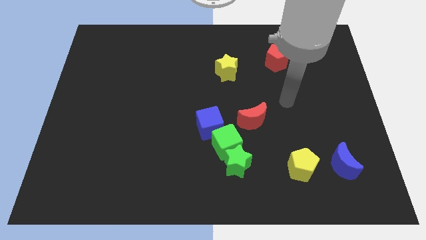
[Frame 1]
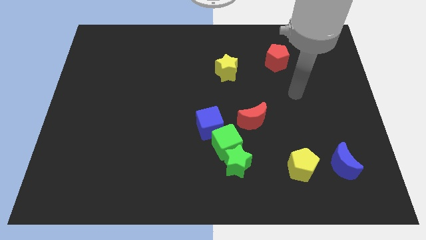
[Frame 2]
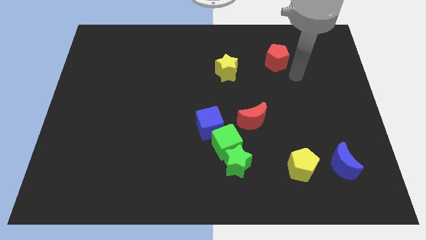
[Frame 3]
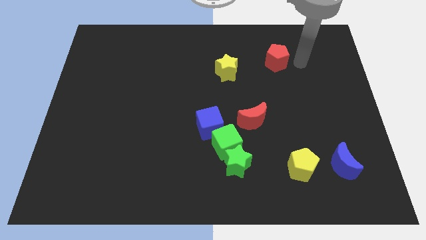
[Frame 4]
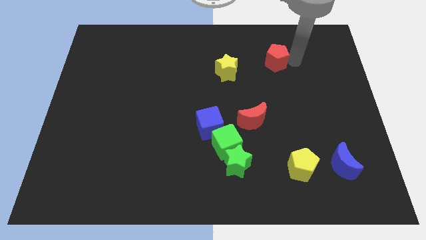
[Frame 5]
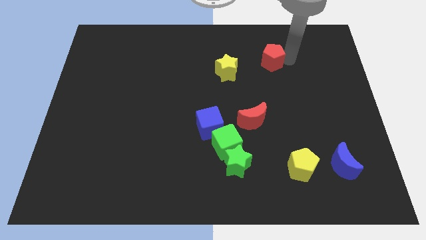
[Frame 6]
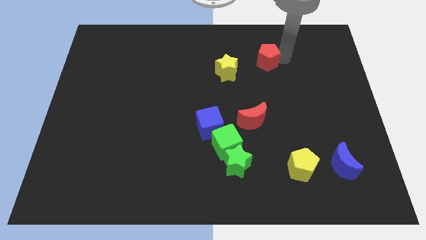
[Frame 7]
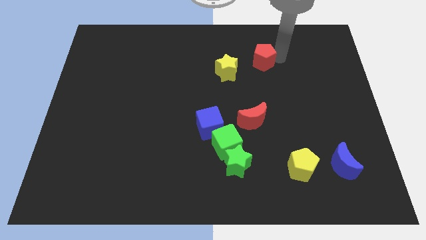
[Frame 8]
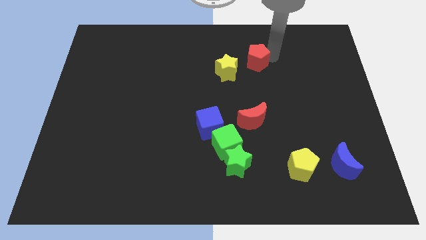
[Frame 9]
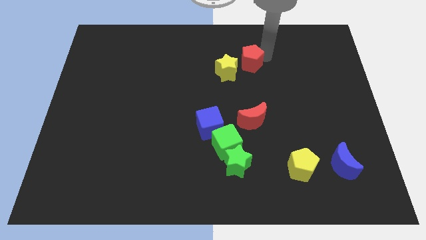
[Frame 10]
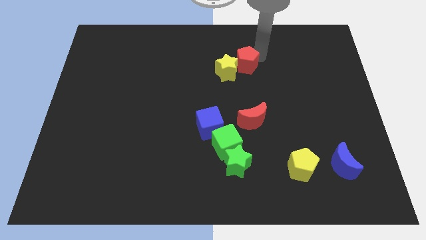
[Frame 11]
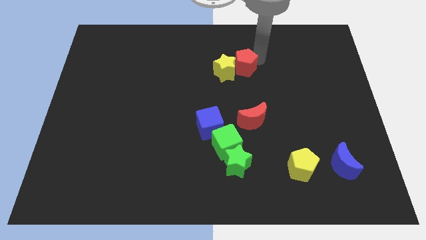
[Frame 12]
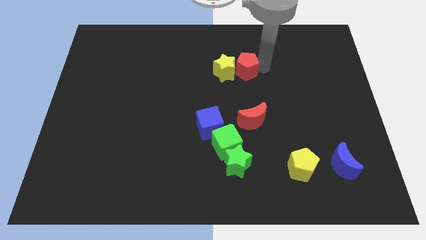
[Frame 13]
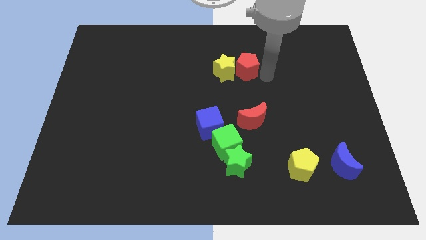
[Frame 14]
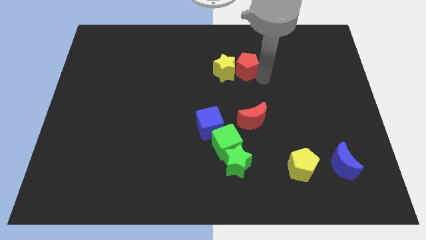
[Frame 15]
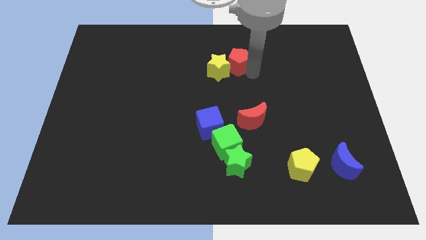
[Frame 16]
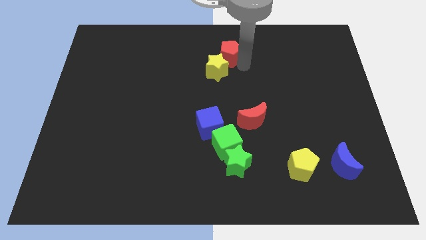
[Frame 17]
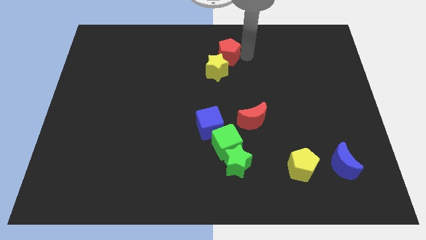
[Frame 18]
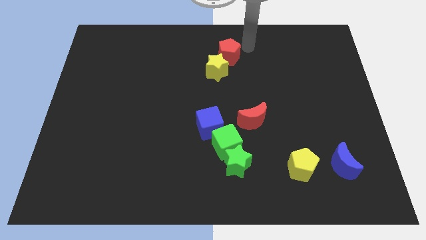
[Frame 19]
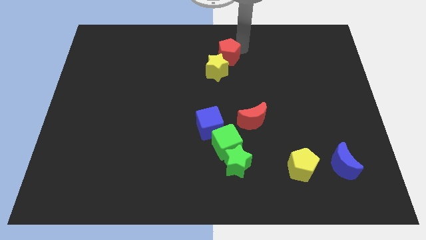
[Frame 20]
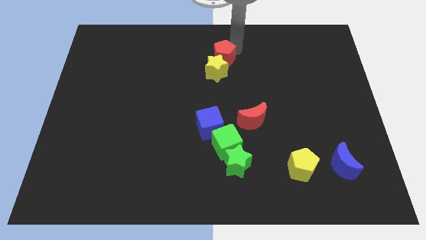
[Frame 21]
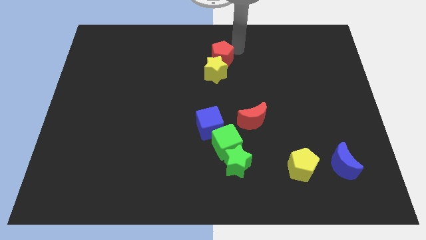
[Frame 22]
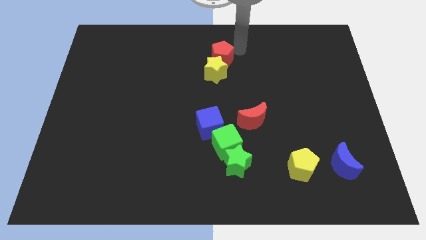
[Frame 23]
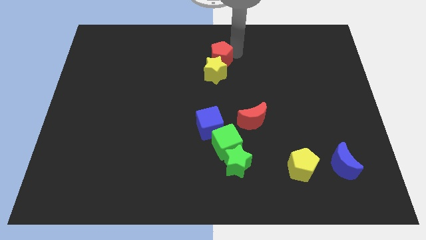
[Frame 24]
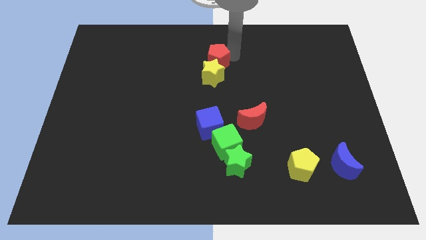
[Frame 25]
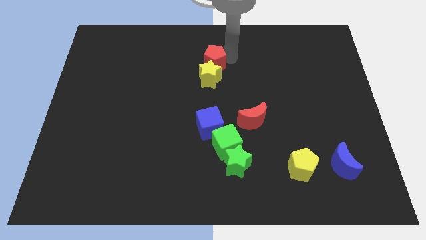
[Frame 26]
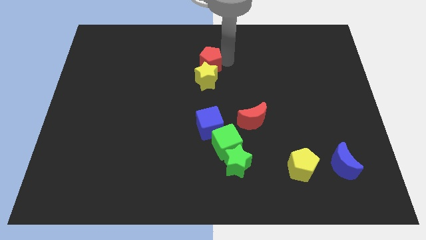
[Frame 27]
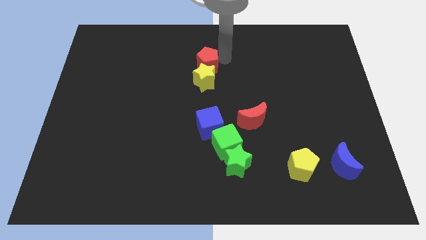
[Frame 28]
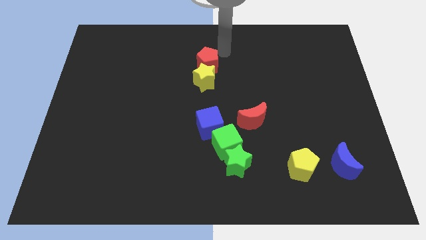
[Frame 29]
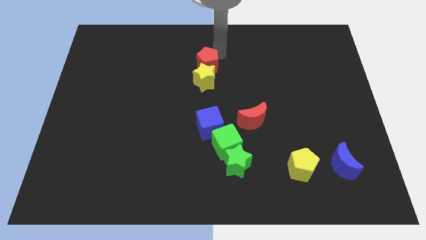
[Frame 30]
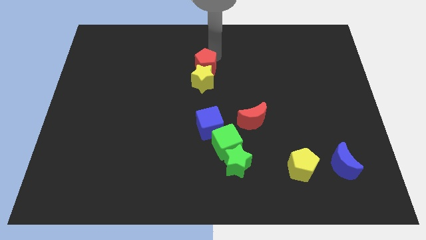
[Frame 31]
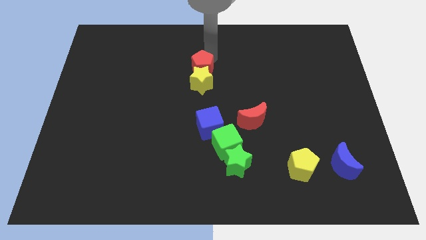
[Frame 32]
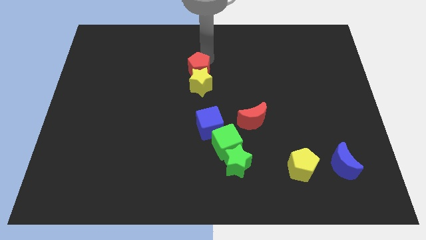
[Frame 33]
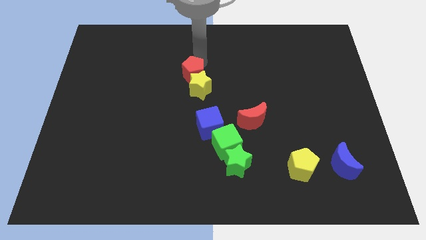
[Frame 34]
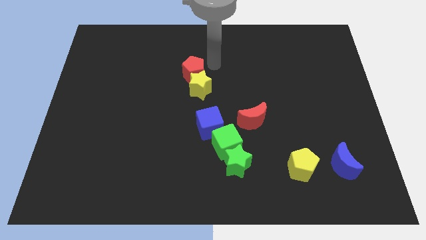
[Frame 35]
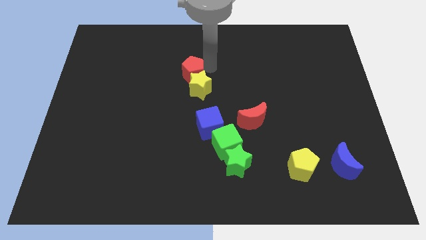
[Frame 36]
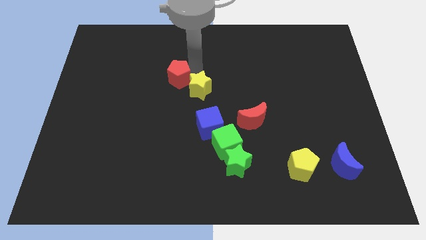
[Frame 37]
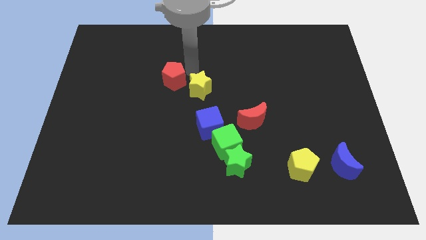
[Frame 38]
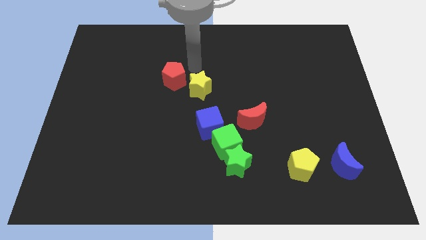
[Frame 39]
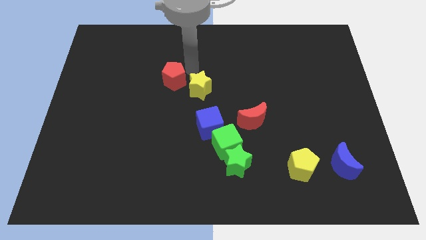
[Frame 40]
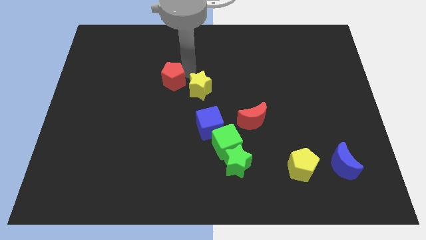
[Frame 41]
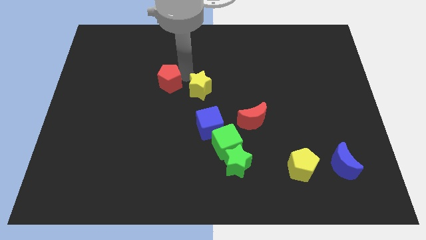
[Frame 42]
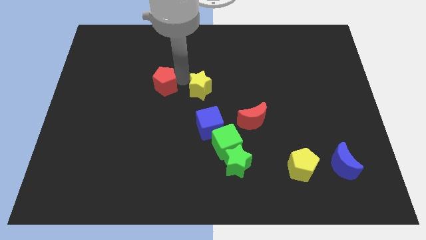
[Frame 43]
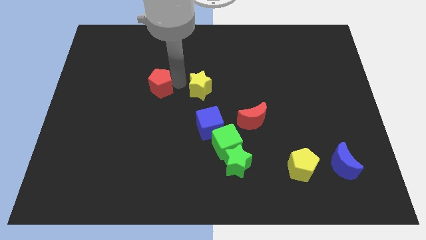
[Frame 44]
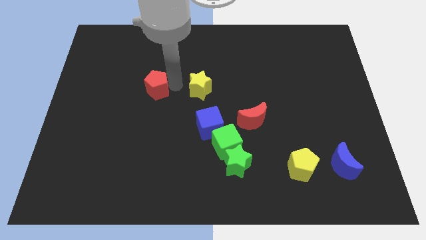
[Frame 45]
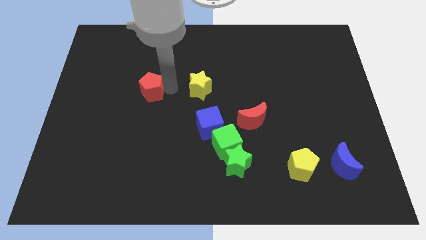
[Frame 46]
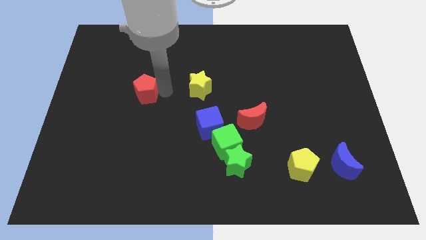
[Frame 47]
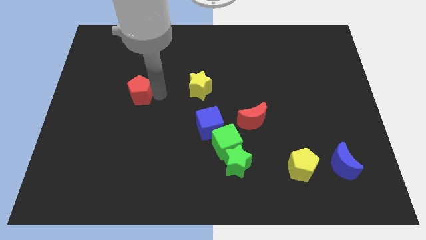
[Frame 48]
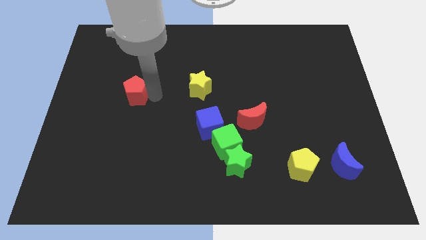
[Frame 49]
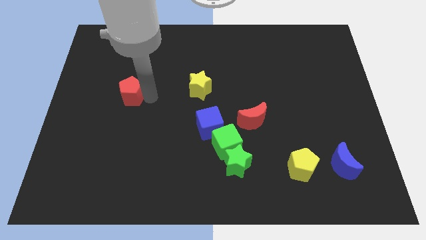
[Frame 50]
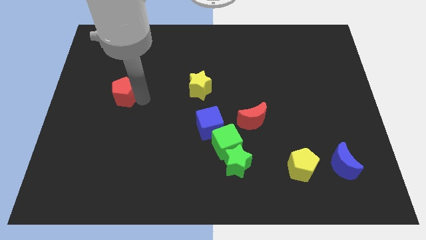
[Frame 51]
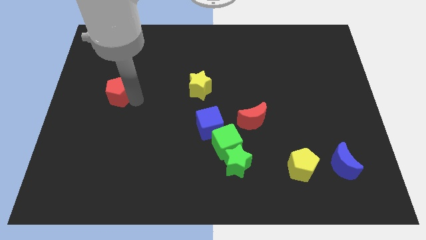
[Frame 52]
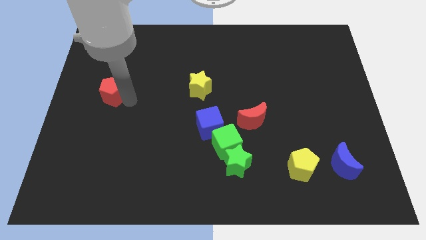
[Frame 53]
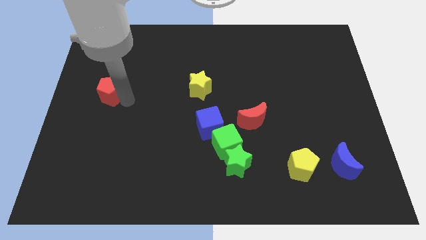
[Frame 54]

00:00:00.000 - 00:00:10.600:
move the red pentagon to the left side

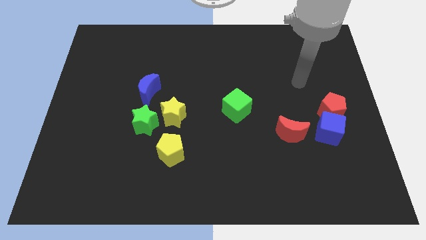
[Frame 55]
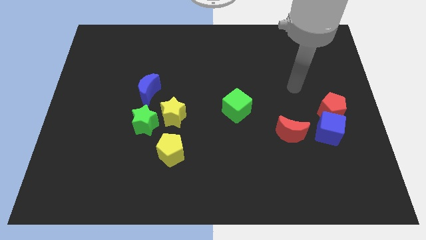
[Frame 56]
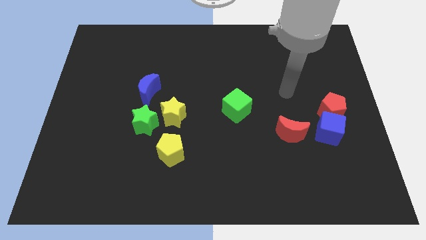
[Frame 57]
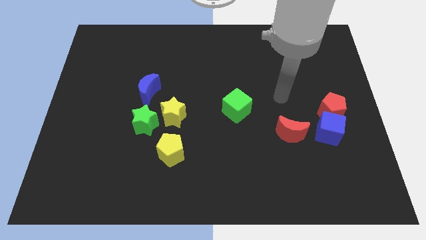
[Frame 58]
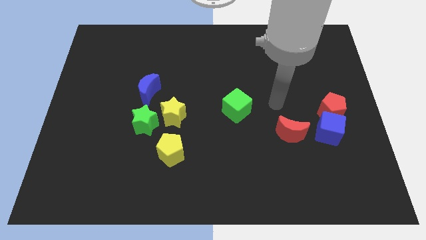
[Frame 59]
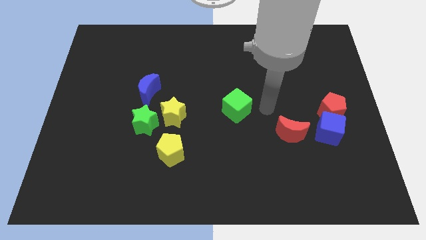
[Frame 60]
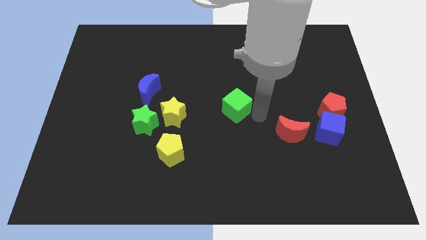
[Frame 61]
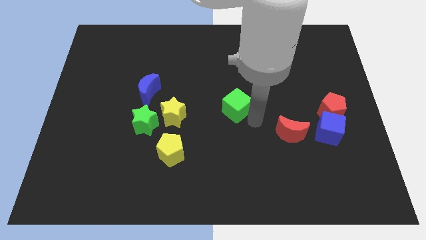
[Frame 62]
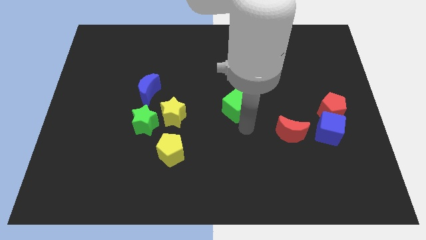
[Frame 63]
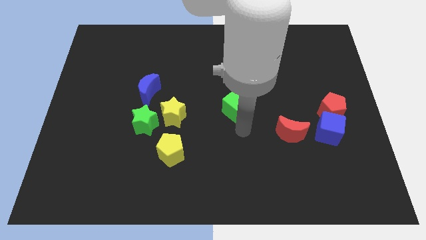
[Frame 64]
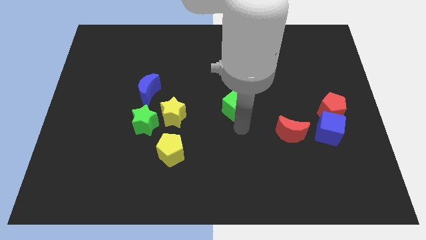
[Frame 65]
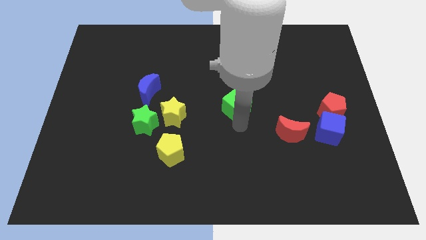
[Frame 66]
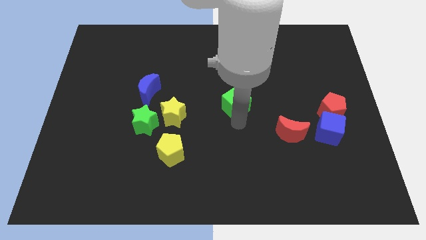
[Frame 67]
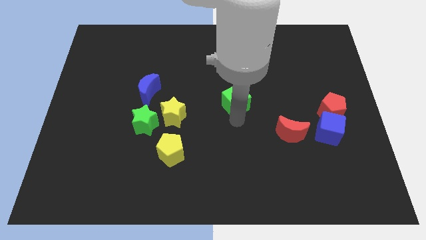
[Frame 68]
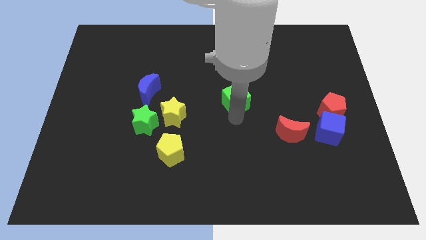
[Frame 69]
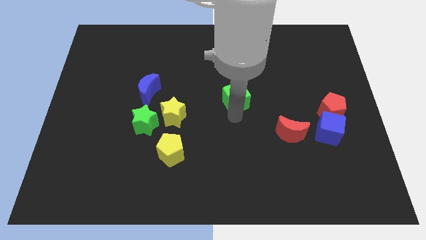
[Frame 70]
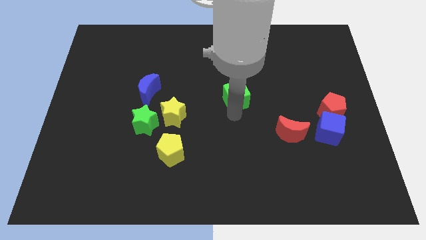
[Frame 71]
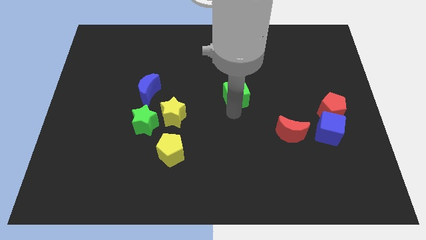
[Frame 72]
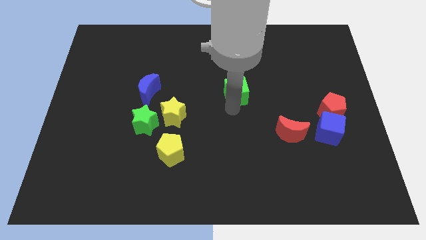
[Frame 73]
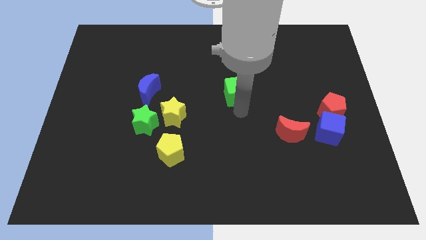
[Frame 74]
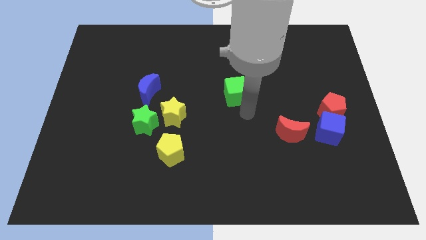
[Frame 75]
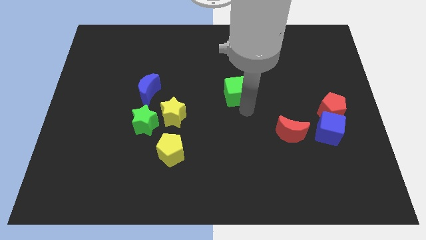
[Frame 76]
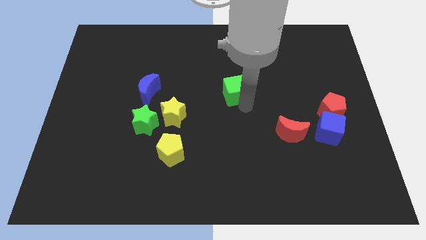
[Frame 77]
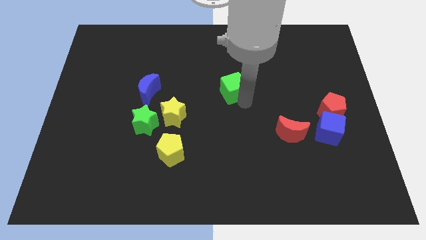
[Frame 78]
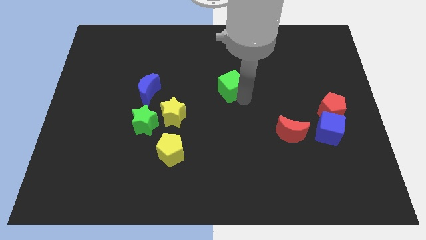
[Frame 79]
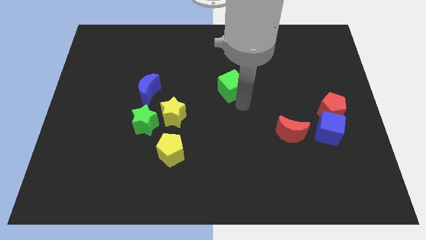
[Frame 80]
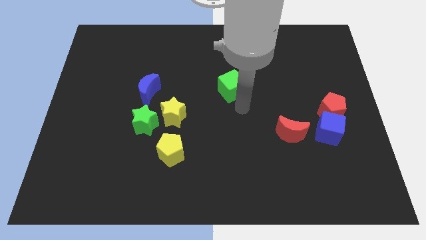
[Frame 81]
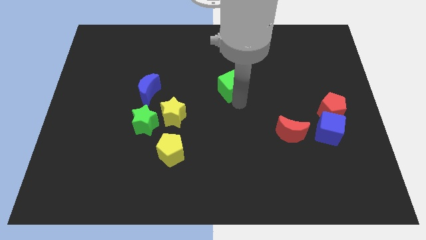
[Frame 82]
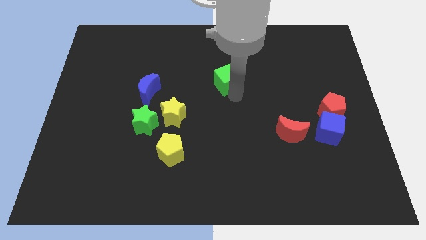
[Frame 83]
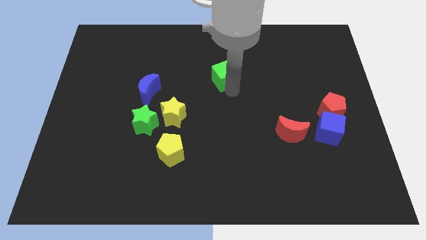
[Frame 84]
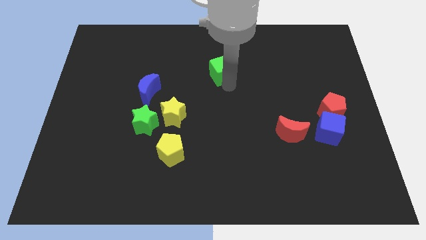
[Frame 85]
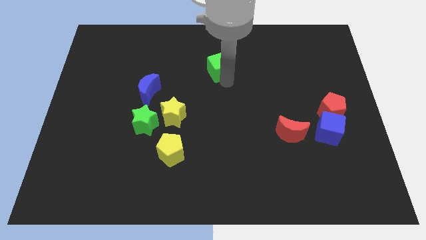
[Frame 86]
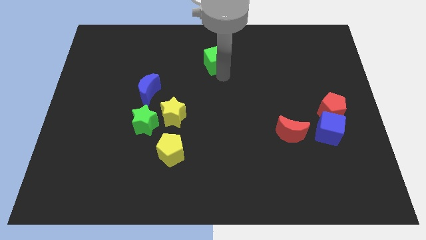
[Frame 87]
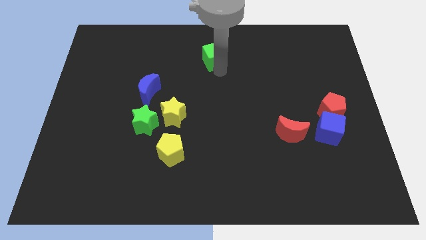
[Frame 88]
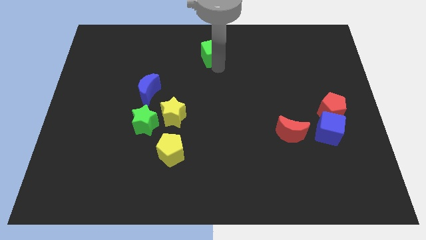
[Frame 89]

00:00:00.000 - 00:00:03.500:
push the green cube to the towards your base
